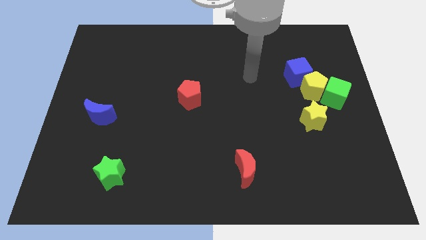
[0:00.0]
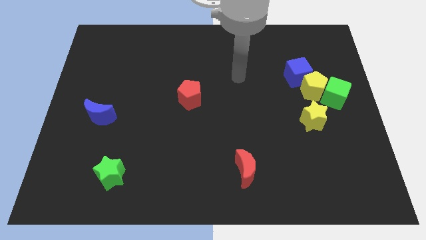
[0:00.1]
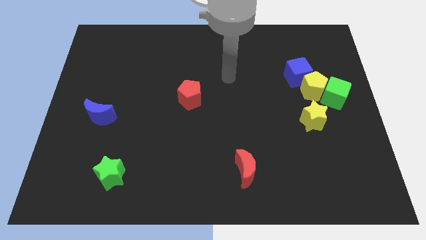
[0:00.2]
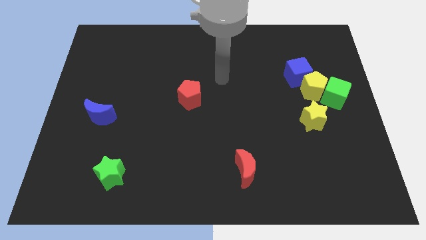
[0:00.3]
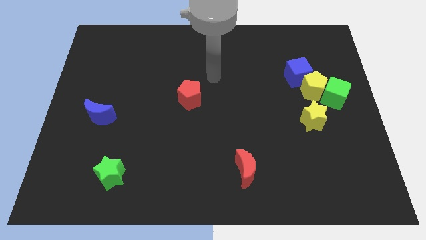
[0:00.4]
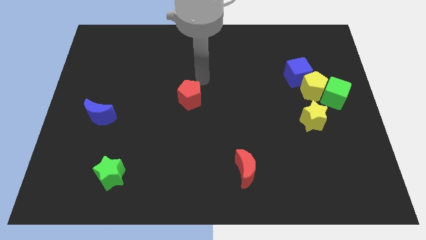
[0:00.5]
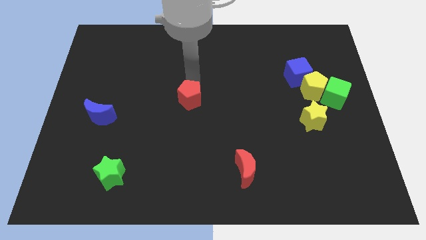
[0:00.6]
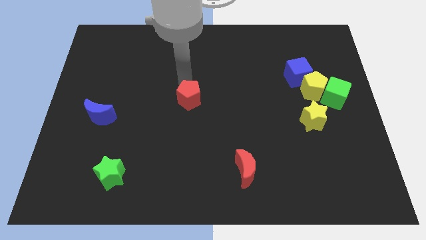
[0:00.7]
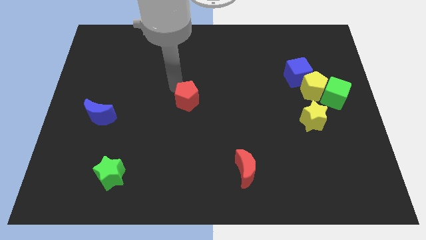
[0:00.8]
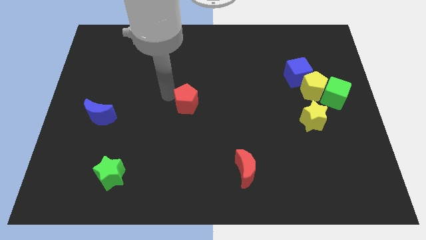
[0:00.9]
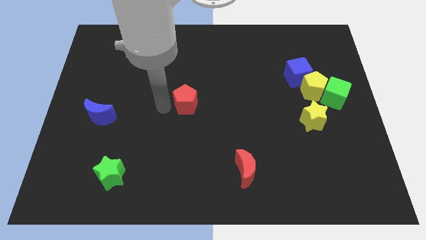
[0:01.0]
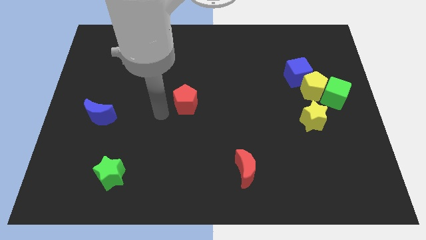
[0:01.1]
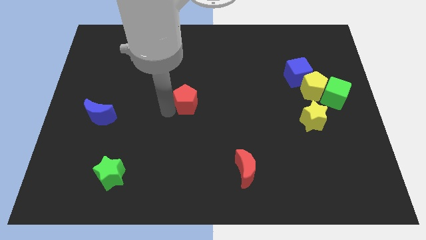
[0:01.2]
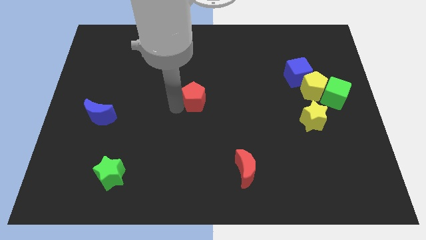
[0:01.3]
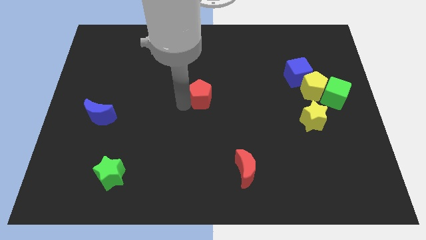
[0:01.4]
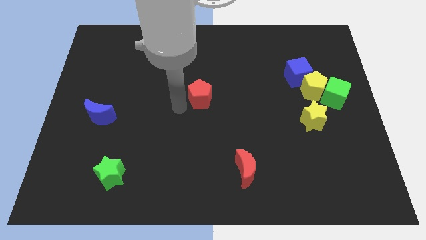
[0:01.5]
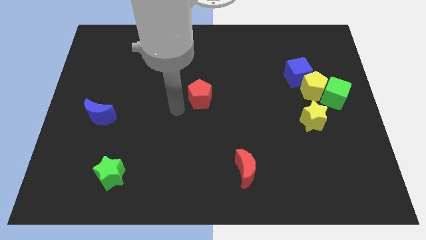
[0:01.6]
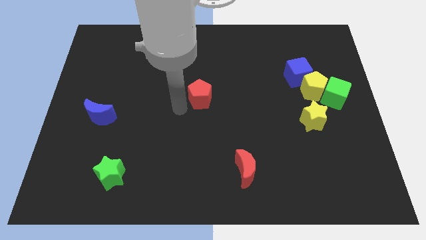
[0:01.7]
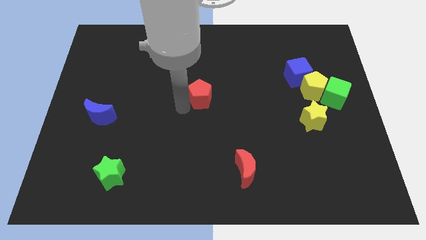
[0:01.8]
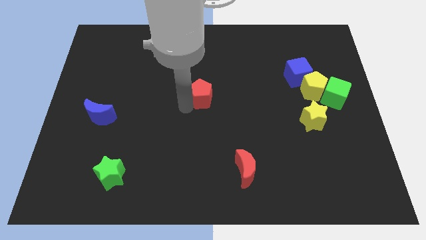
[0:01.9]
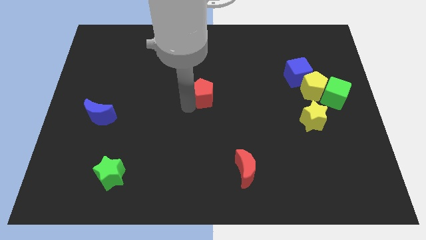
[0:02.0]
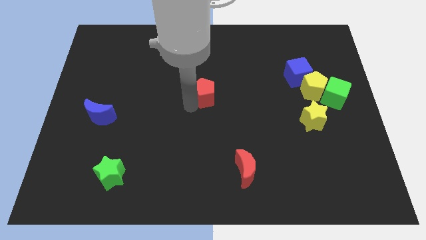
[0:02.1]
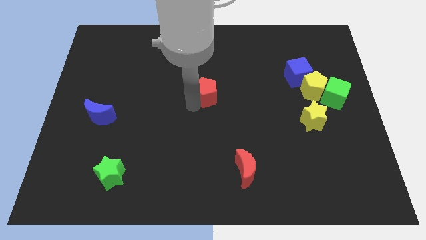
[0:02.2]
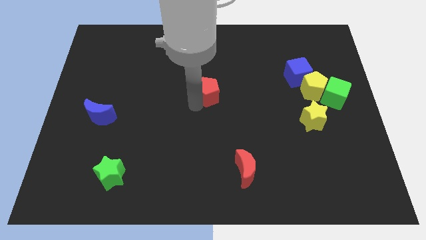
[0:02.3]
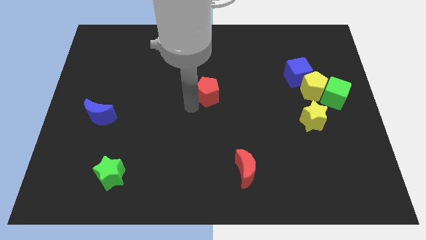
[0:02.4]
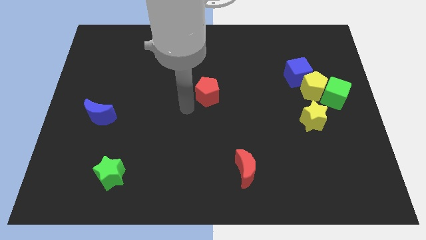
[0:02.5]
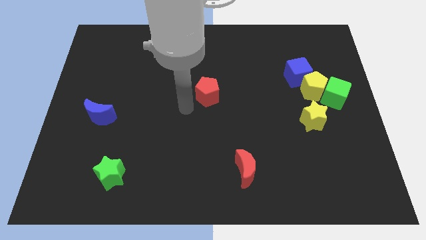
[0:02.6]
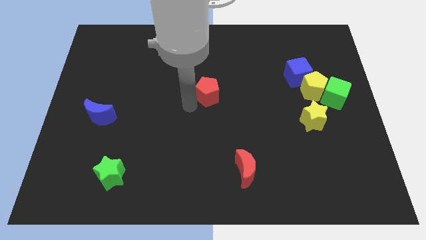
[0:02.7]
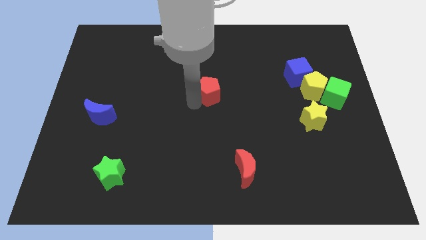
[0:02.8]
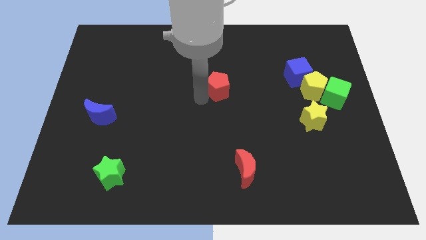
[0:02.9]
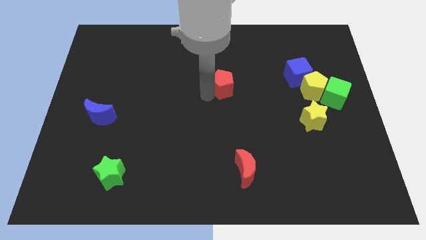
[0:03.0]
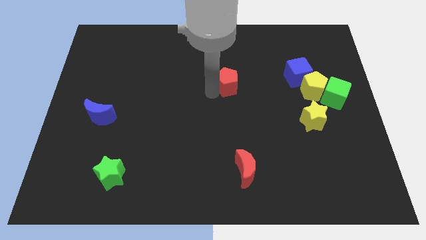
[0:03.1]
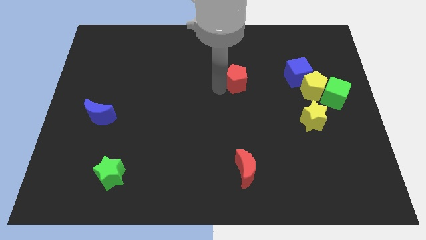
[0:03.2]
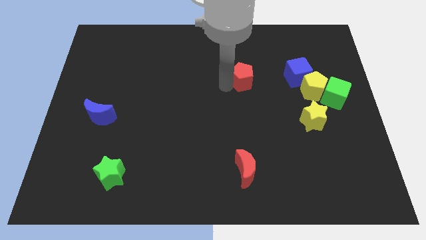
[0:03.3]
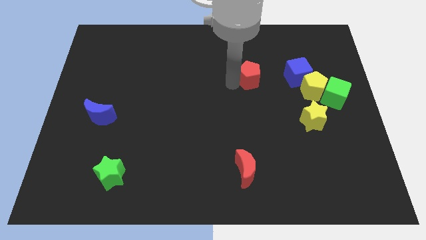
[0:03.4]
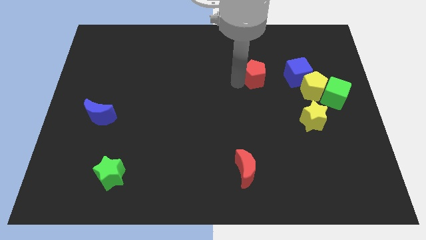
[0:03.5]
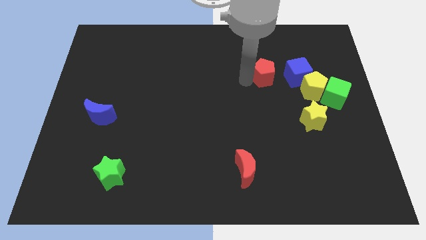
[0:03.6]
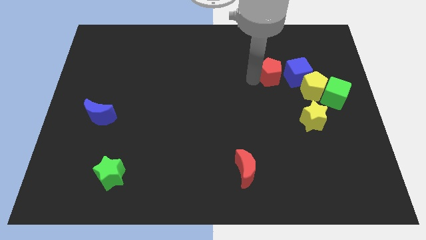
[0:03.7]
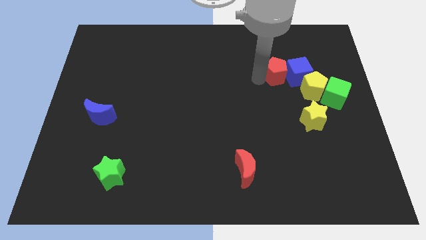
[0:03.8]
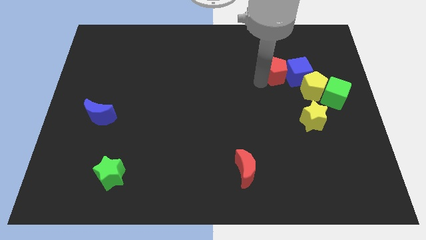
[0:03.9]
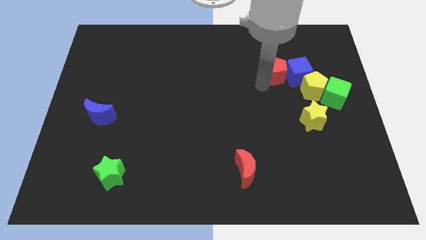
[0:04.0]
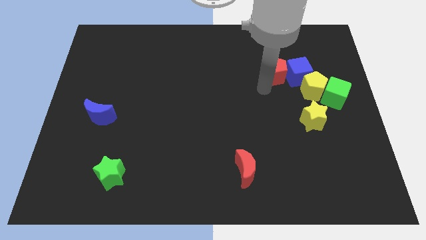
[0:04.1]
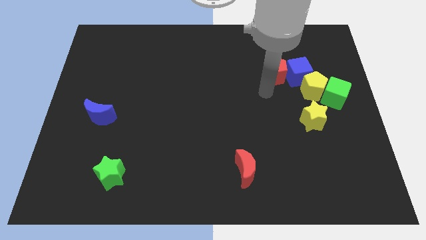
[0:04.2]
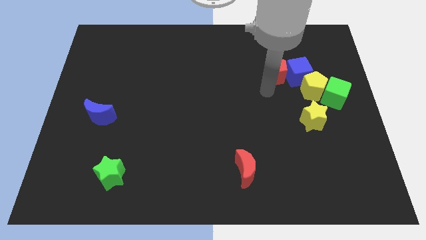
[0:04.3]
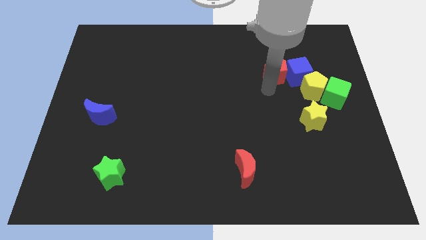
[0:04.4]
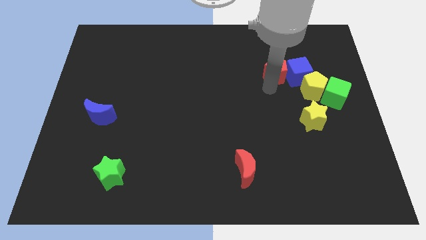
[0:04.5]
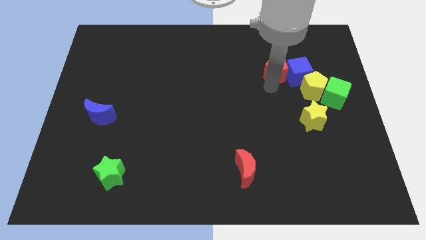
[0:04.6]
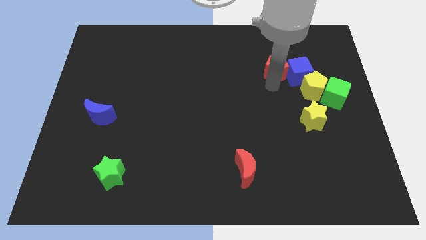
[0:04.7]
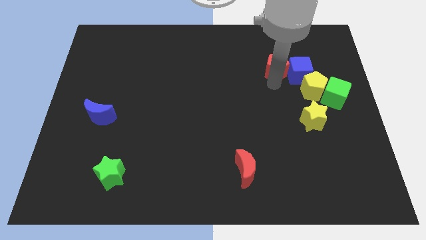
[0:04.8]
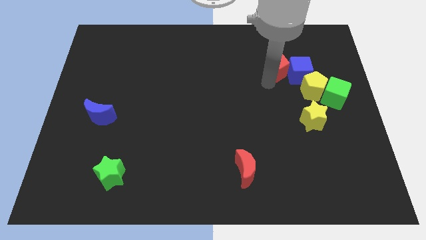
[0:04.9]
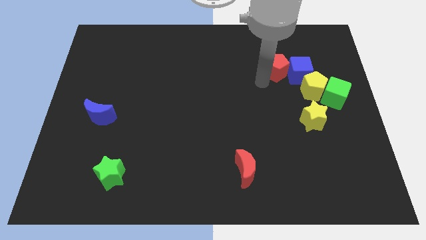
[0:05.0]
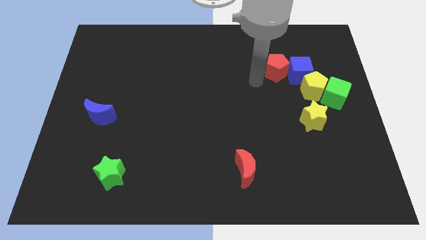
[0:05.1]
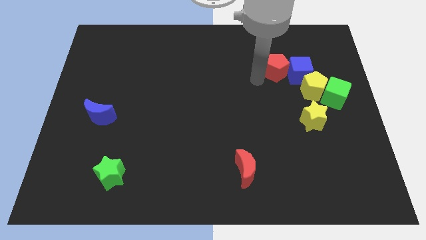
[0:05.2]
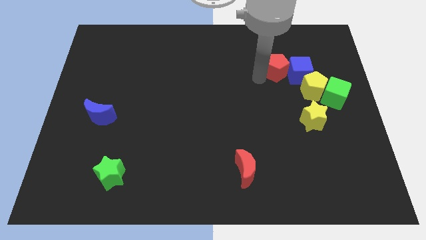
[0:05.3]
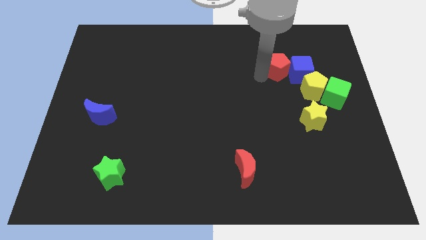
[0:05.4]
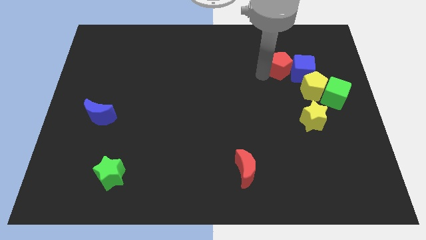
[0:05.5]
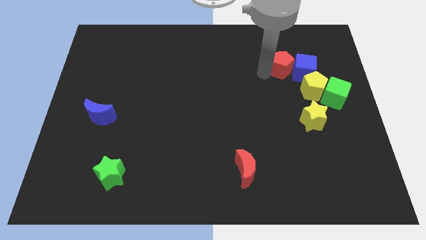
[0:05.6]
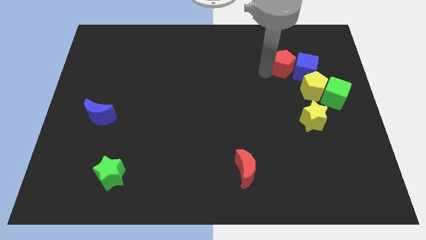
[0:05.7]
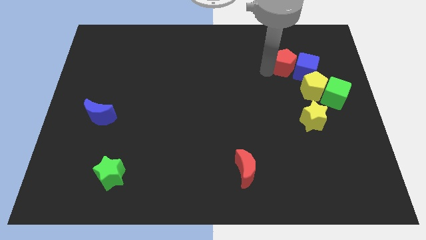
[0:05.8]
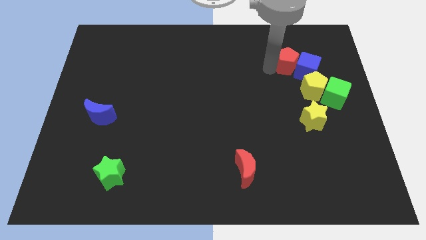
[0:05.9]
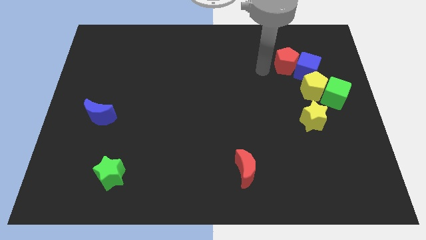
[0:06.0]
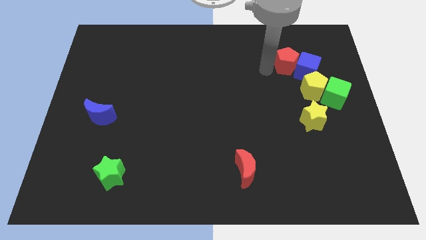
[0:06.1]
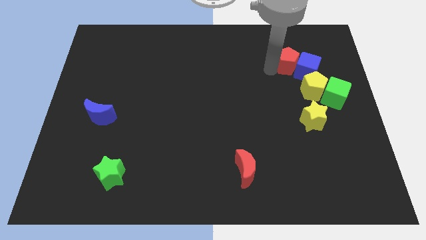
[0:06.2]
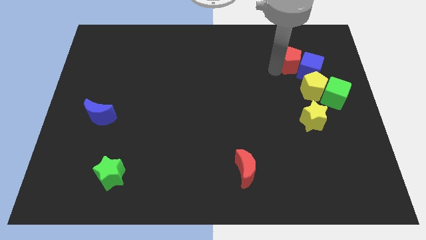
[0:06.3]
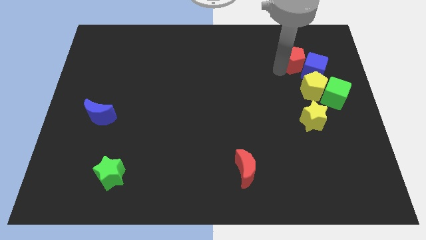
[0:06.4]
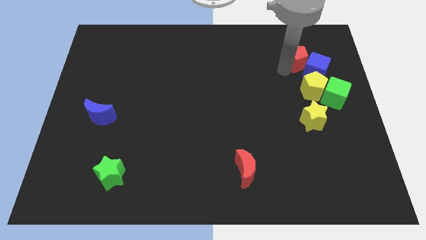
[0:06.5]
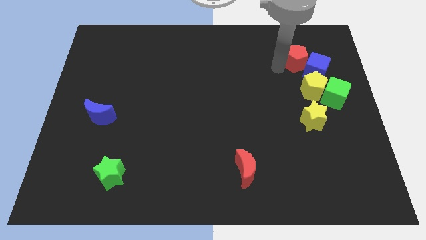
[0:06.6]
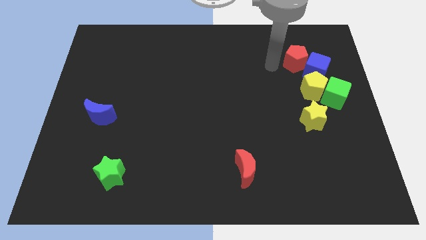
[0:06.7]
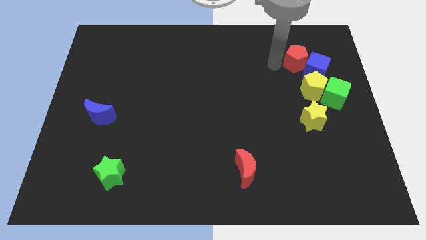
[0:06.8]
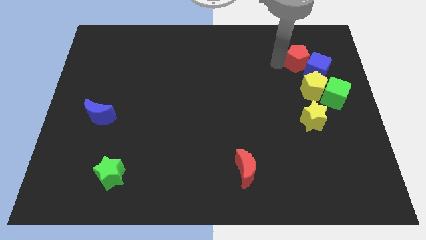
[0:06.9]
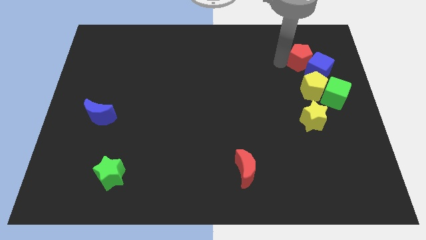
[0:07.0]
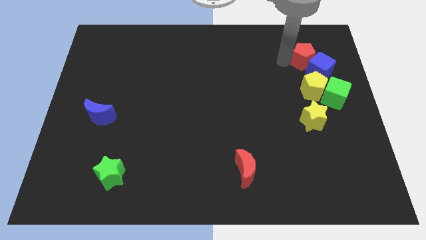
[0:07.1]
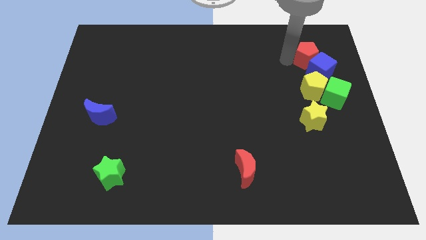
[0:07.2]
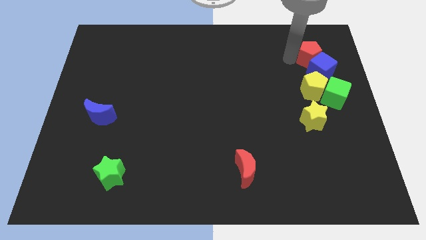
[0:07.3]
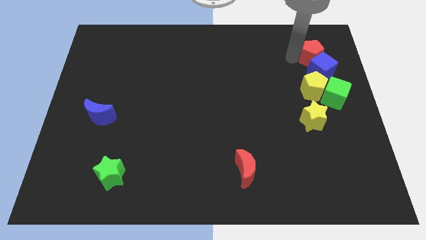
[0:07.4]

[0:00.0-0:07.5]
move the red pentagon diagonally up and to the right of the blue cube
